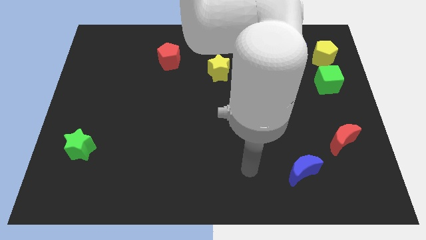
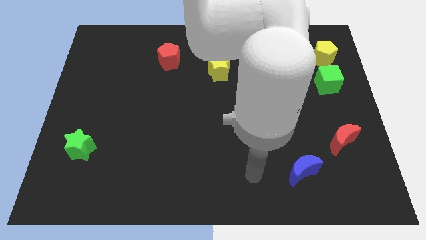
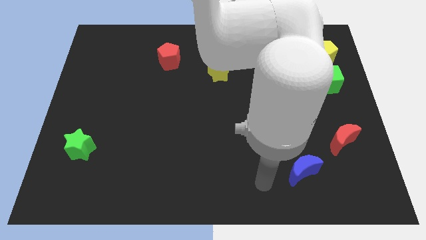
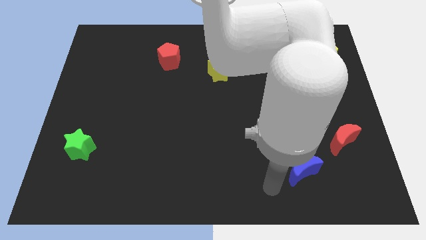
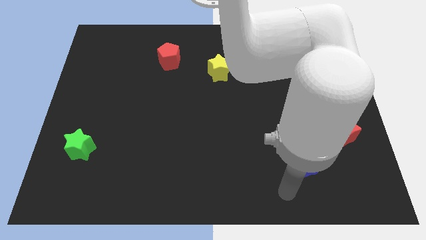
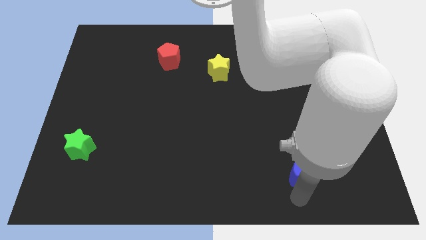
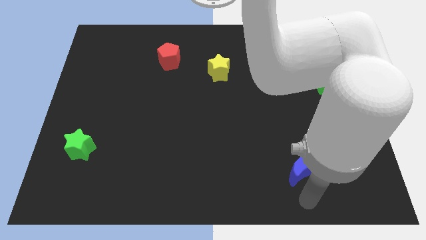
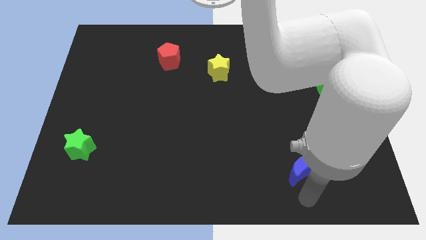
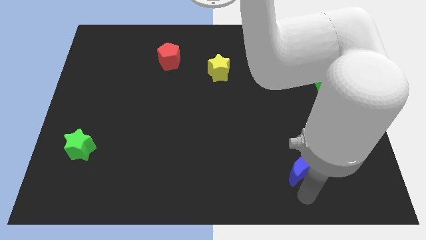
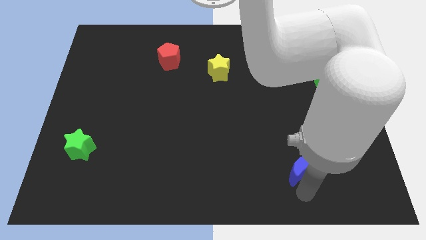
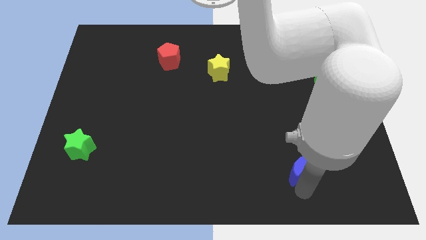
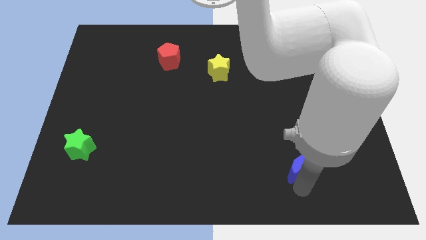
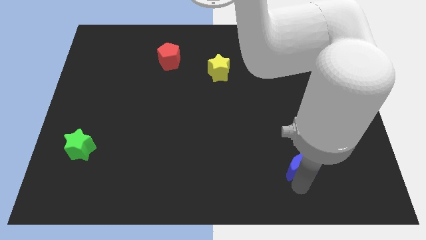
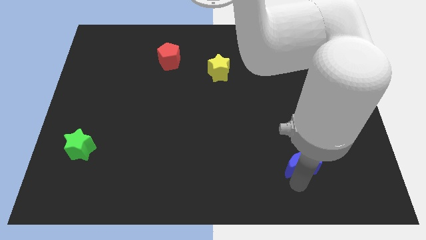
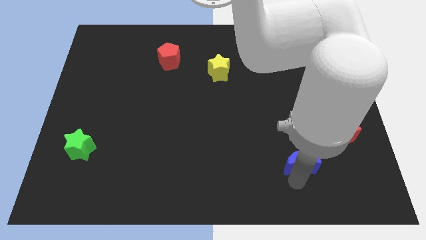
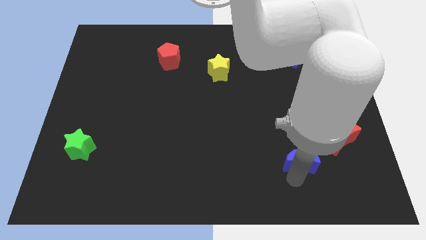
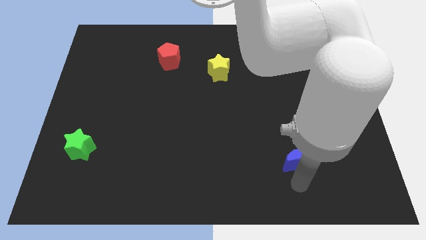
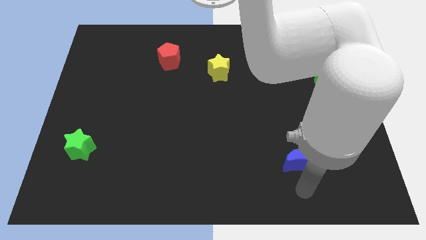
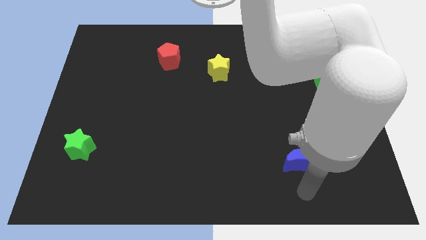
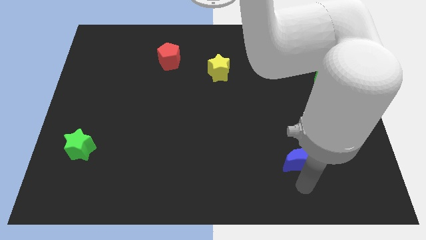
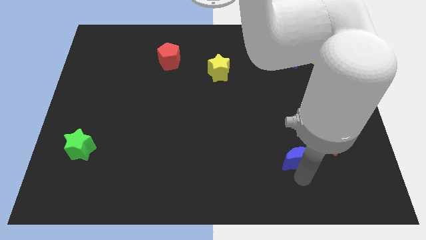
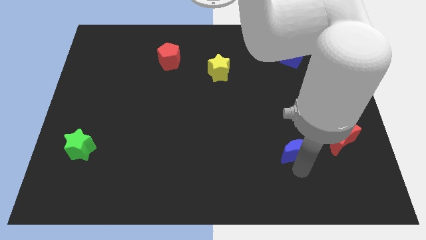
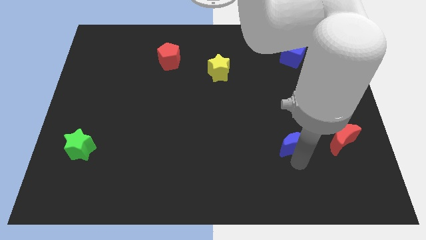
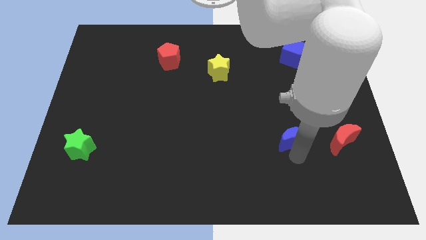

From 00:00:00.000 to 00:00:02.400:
move the blue moon a little upwards

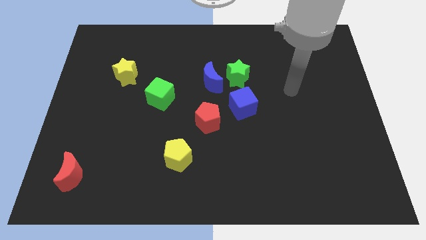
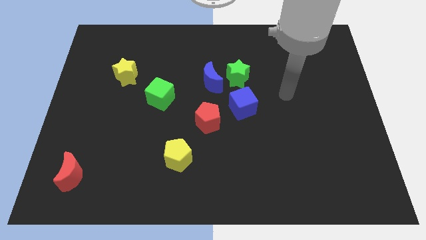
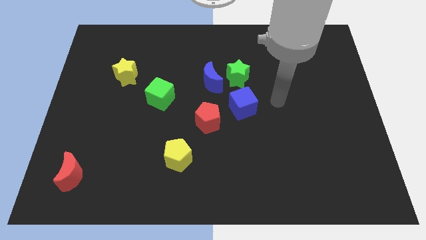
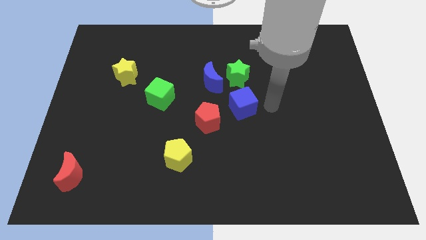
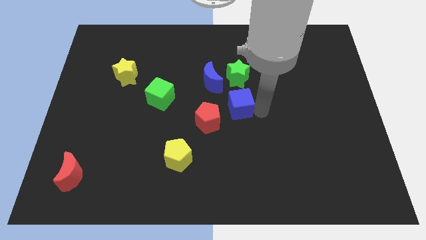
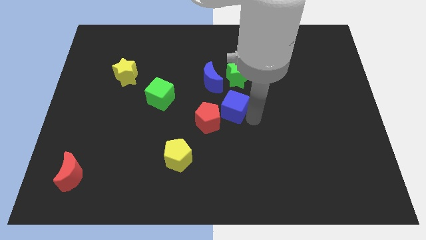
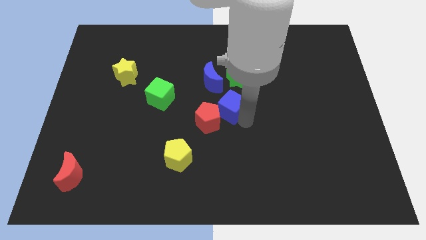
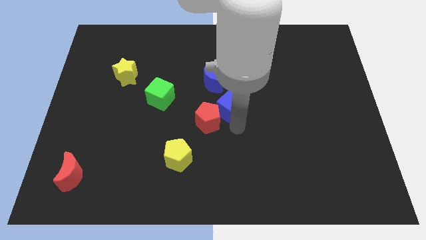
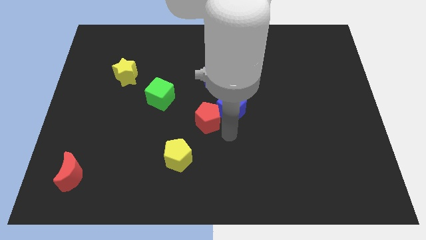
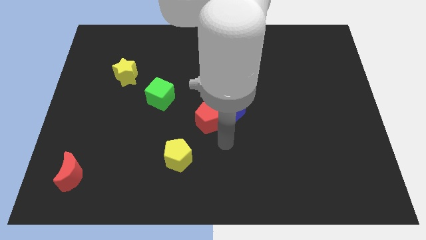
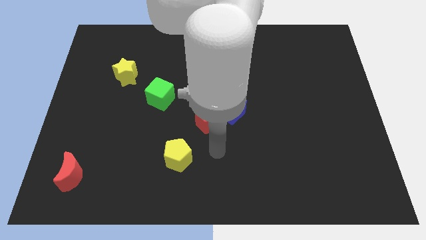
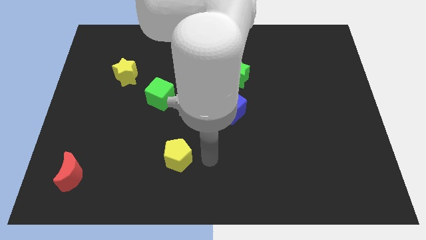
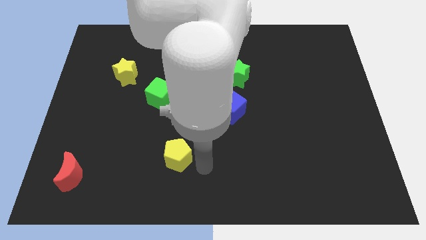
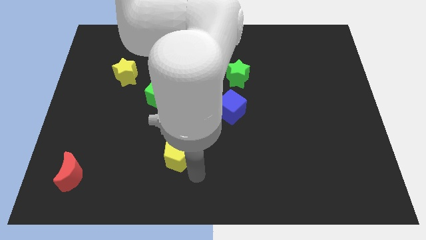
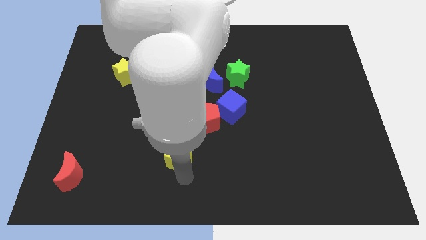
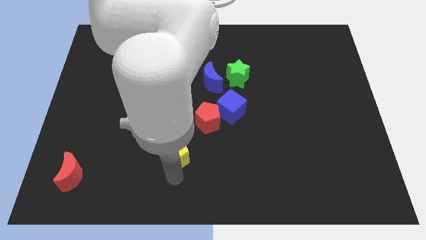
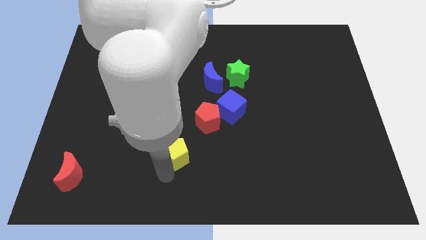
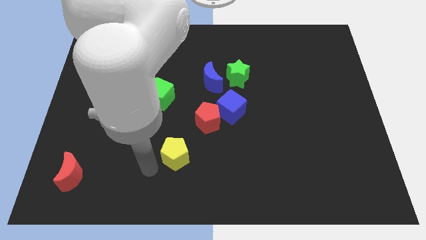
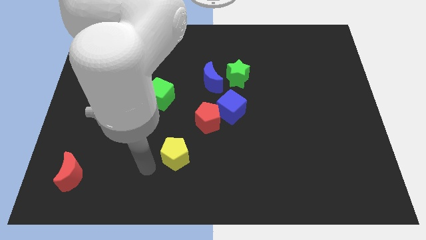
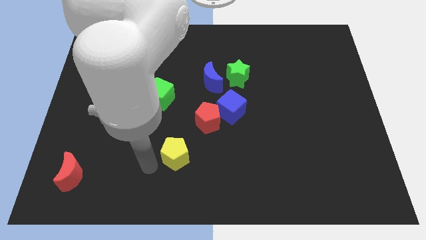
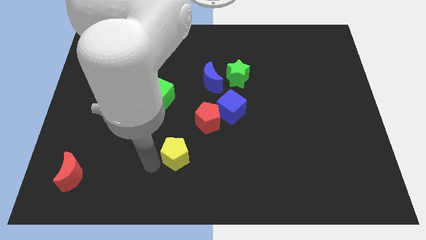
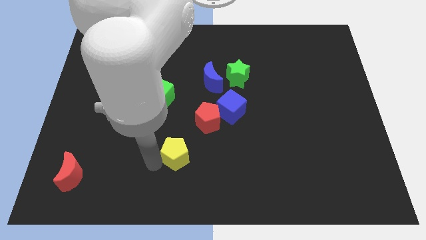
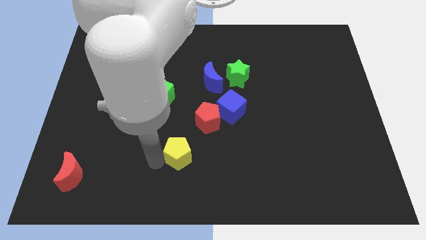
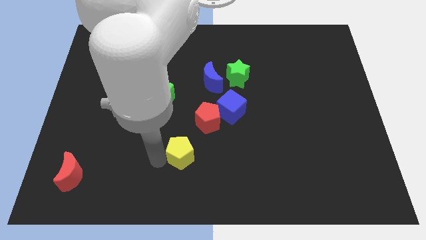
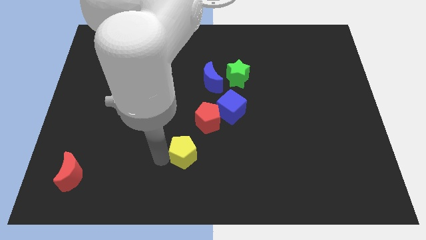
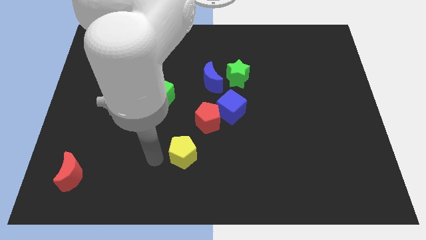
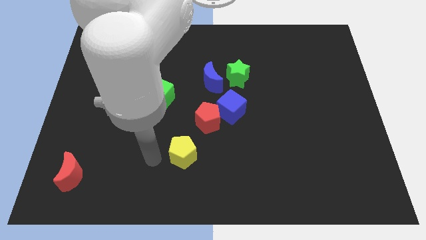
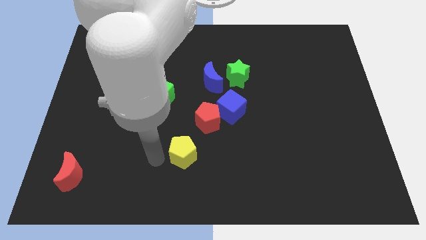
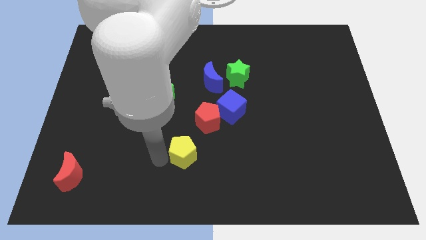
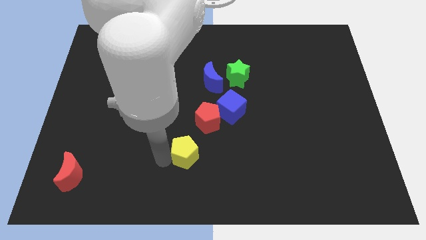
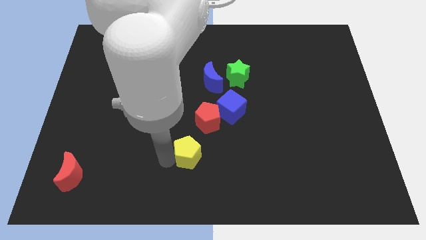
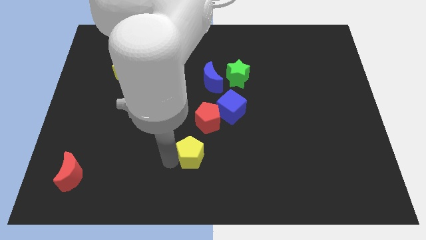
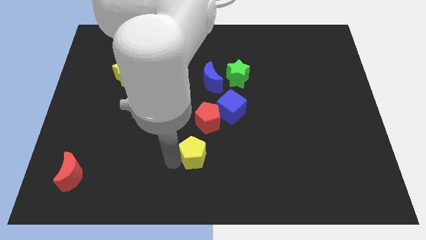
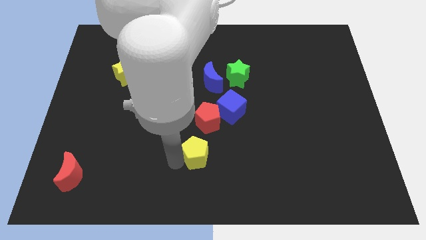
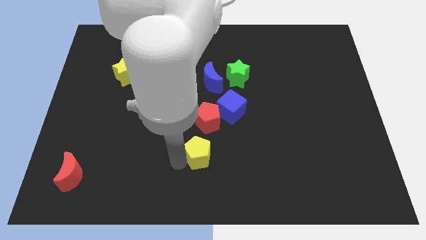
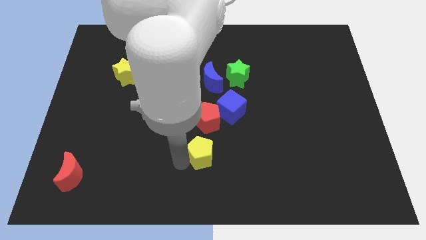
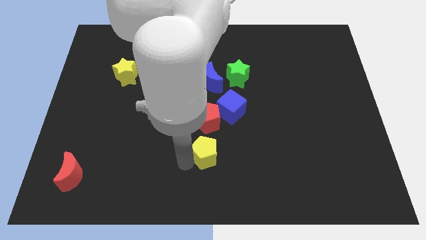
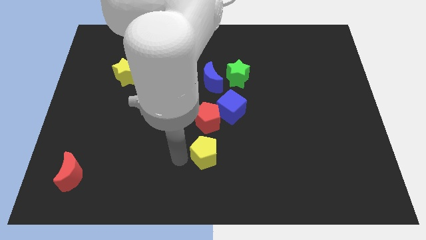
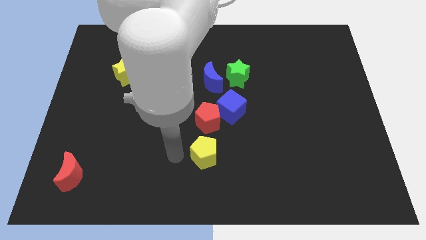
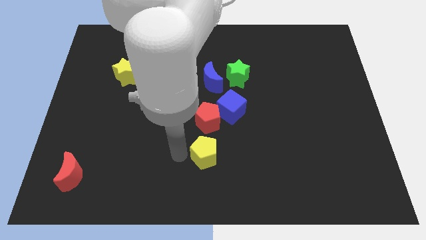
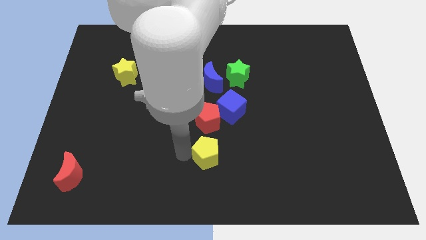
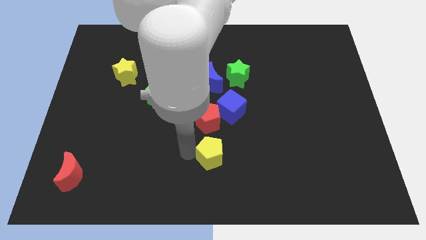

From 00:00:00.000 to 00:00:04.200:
push the yellow pentagon somewhat right

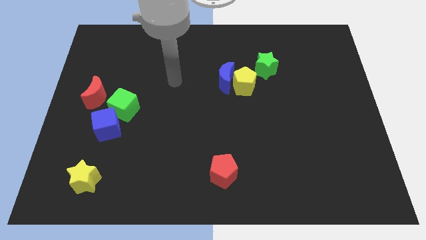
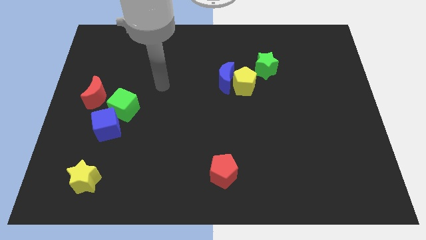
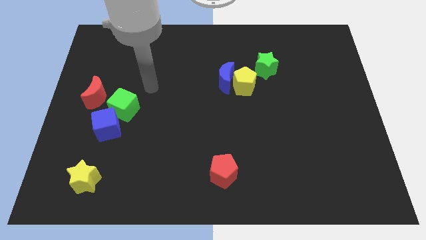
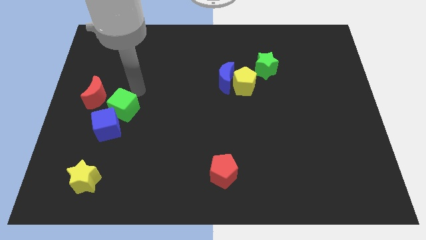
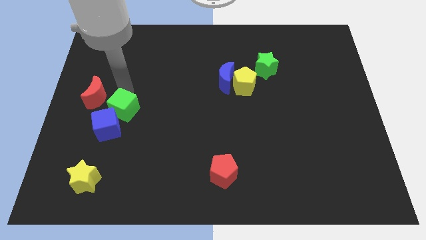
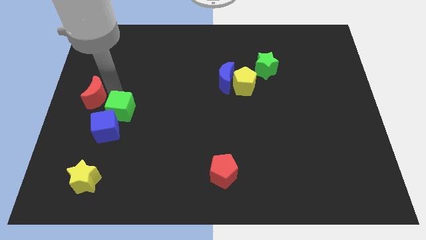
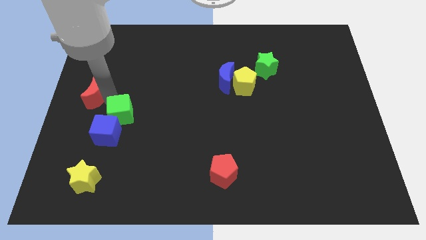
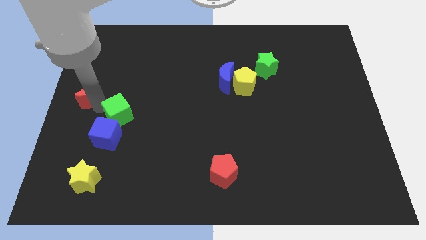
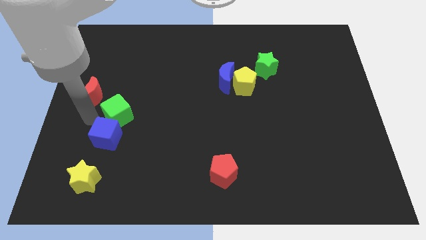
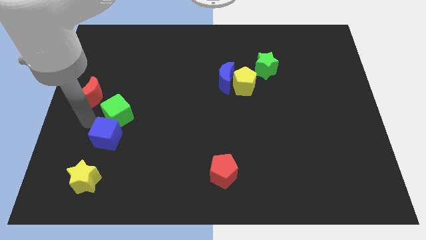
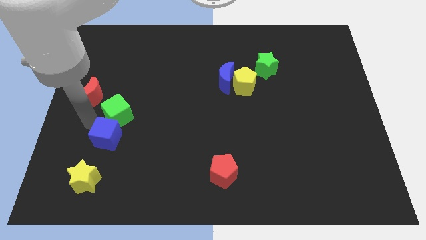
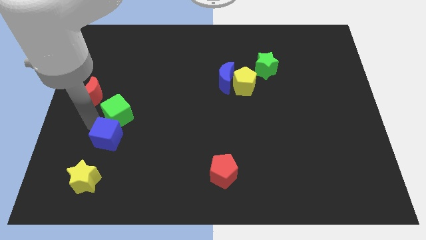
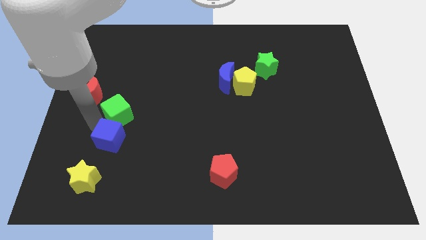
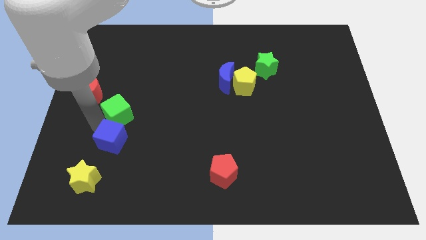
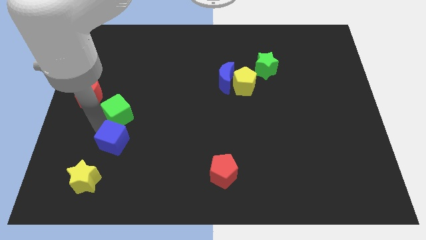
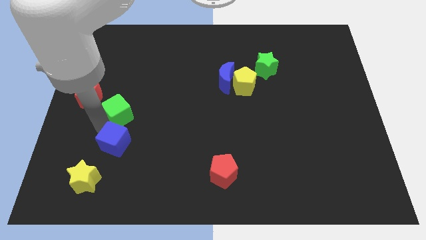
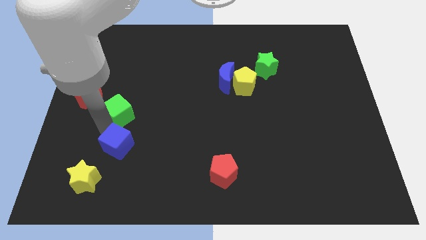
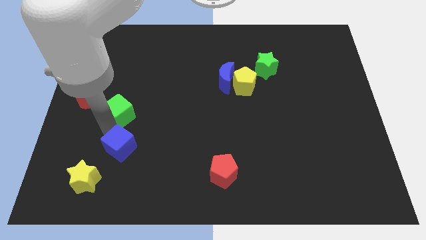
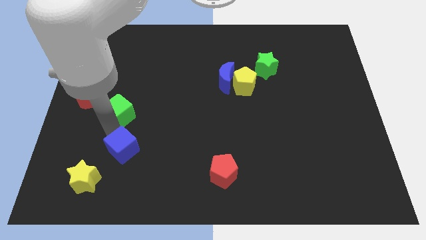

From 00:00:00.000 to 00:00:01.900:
push the blue cube downwards and then to the right a bit
